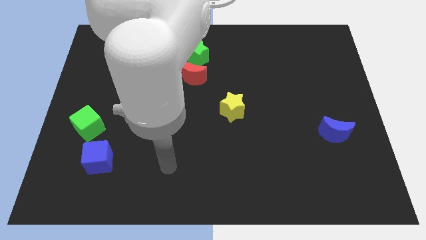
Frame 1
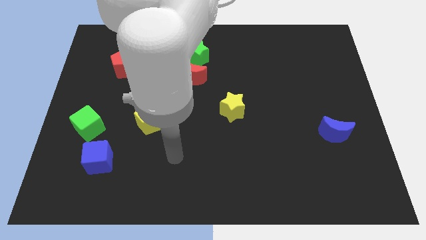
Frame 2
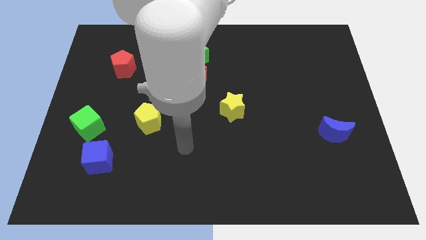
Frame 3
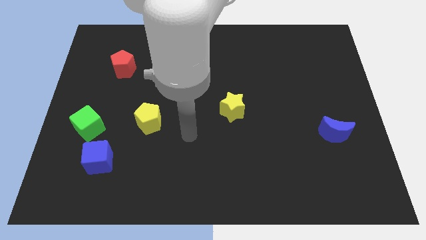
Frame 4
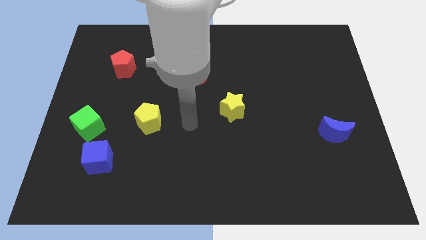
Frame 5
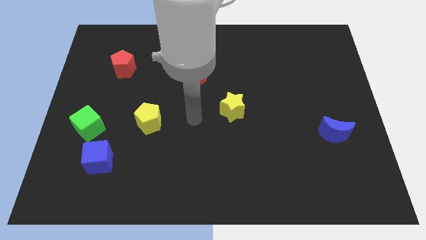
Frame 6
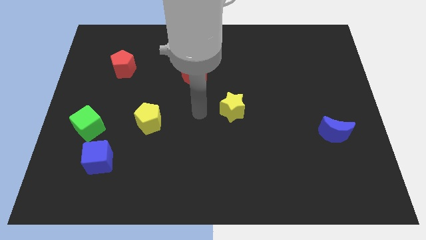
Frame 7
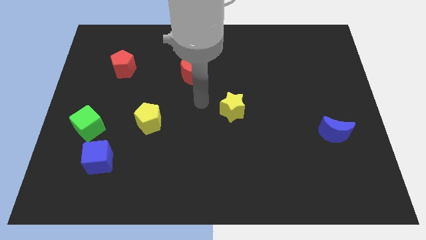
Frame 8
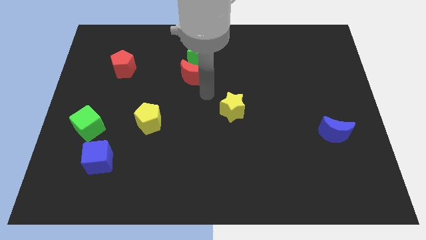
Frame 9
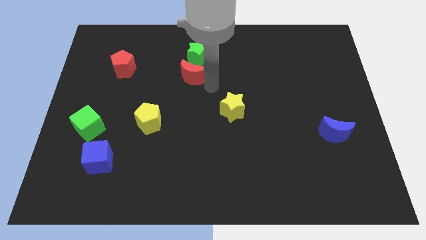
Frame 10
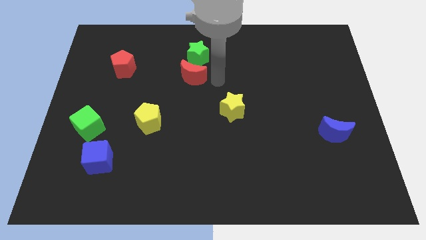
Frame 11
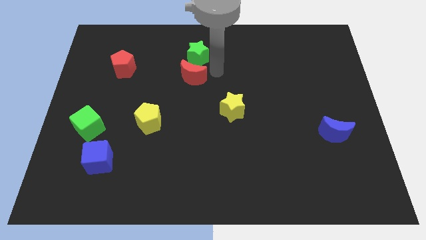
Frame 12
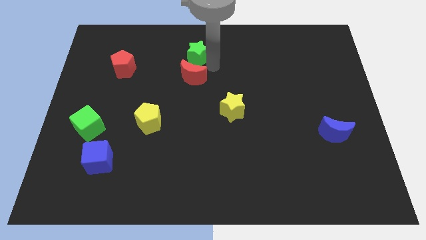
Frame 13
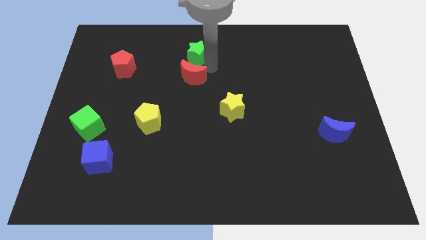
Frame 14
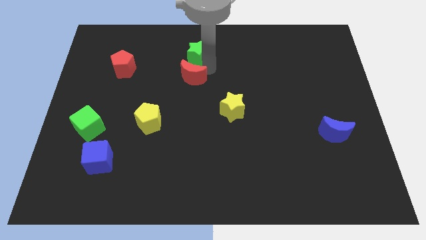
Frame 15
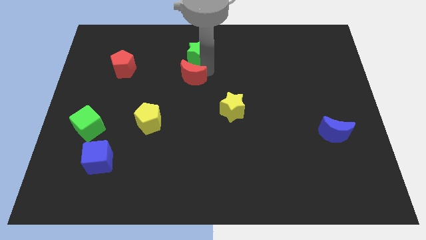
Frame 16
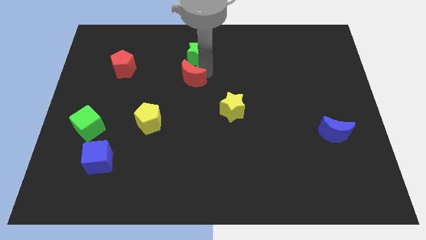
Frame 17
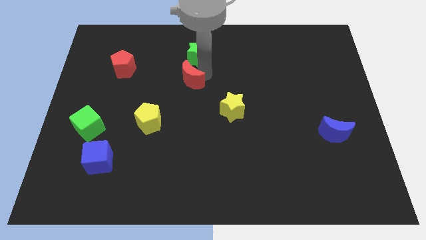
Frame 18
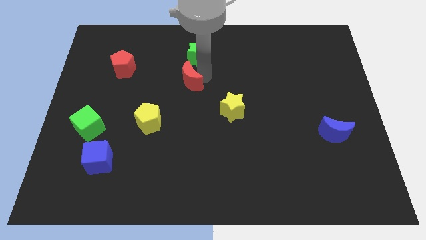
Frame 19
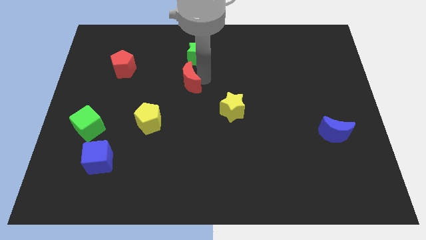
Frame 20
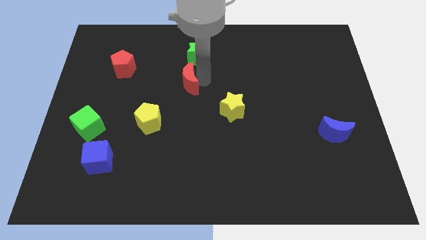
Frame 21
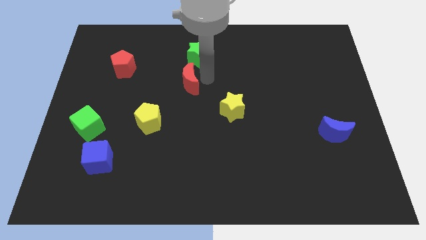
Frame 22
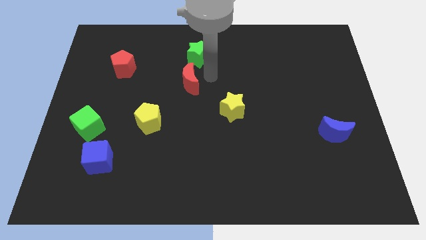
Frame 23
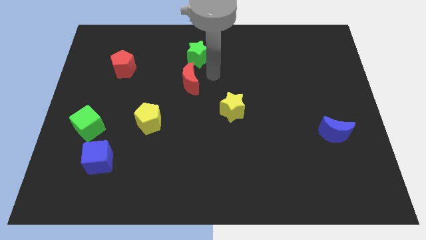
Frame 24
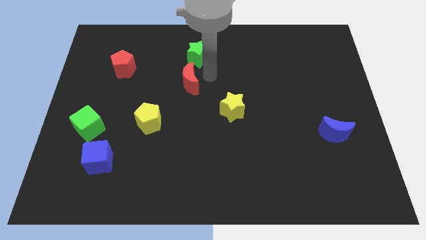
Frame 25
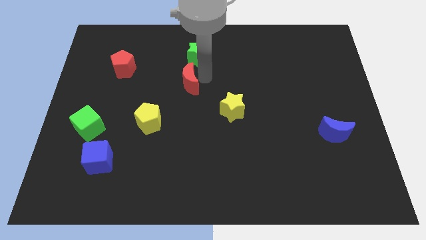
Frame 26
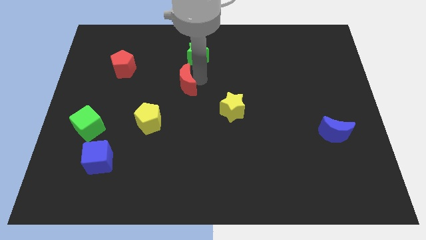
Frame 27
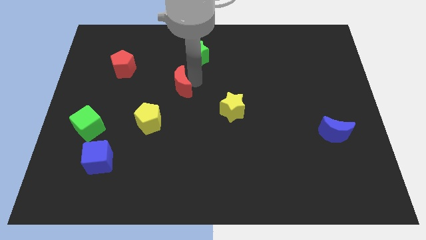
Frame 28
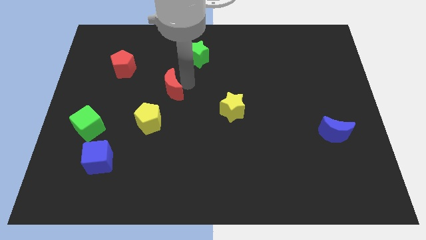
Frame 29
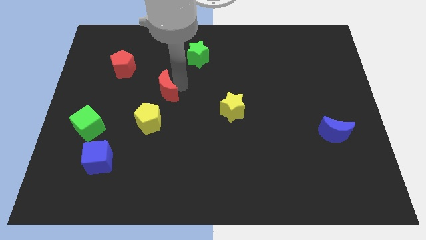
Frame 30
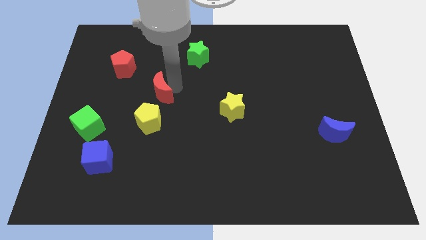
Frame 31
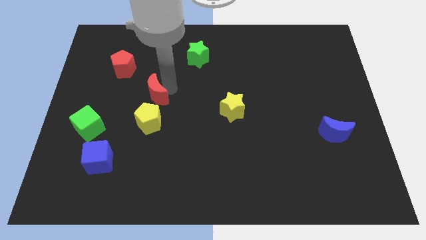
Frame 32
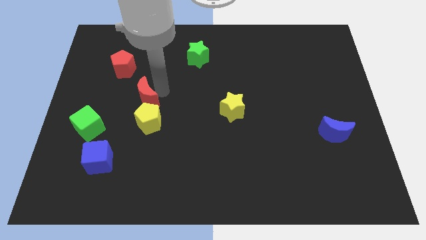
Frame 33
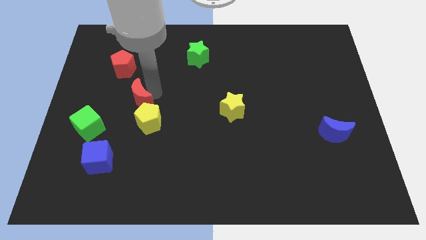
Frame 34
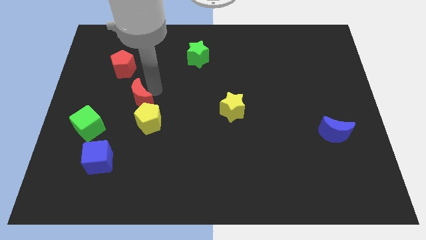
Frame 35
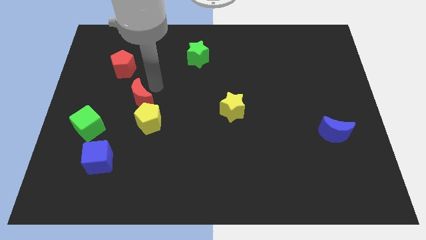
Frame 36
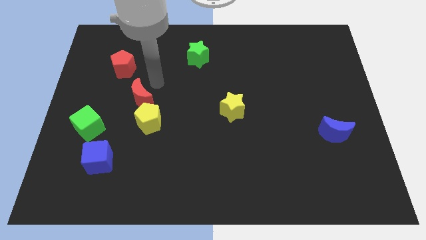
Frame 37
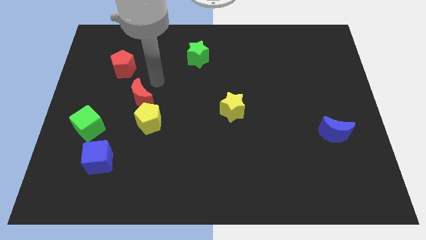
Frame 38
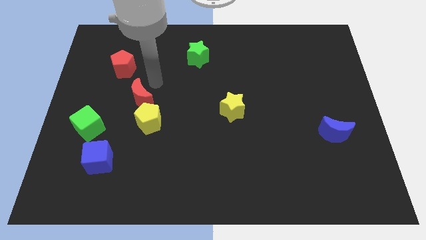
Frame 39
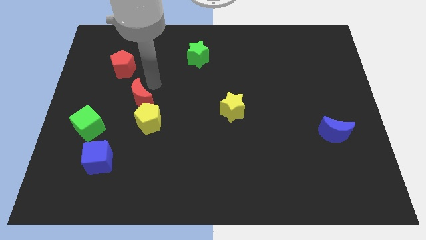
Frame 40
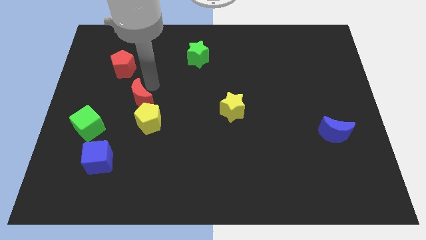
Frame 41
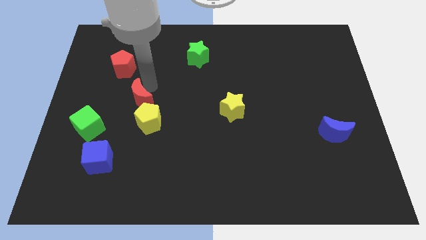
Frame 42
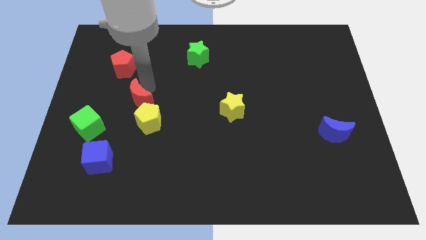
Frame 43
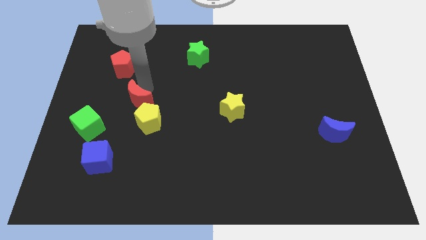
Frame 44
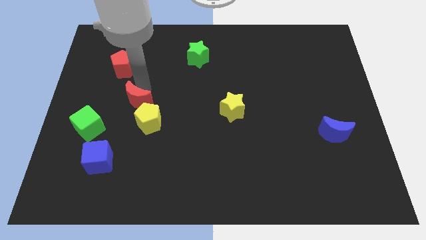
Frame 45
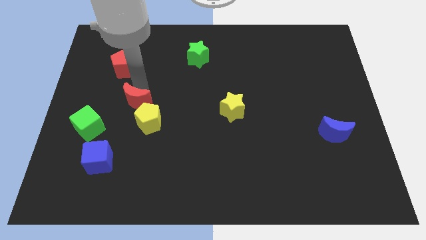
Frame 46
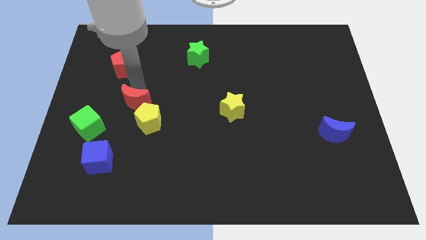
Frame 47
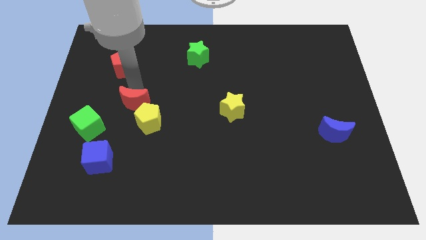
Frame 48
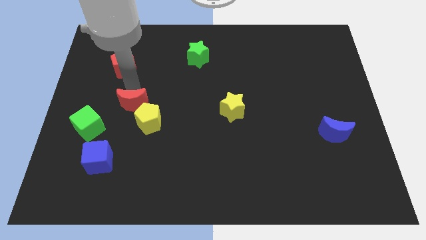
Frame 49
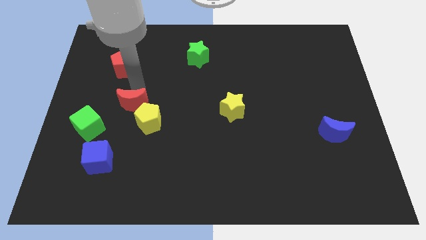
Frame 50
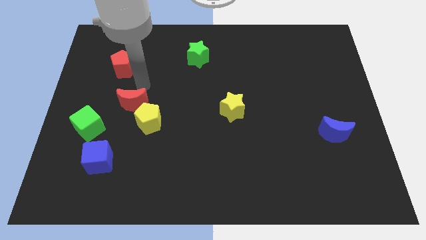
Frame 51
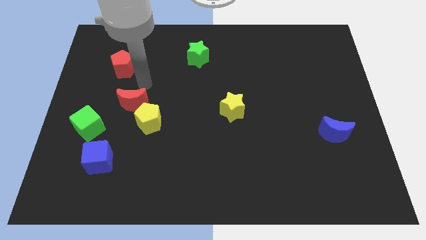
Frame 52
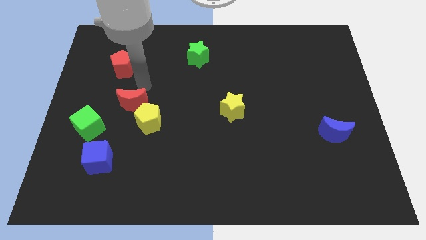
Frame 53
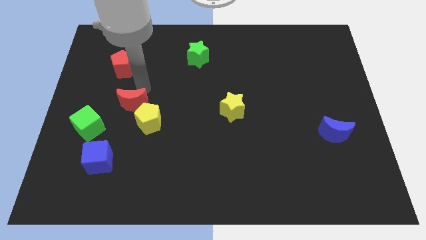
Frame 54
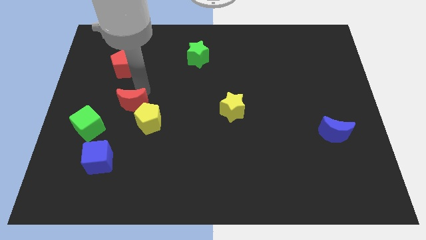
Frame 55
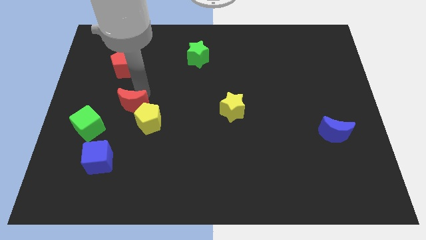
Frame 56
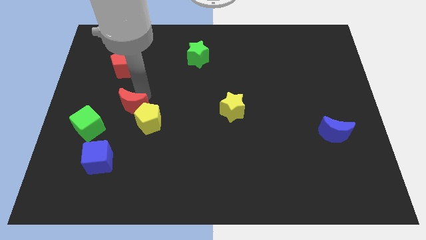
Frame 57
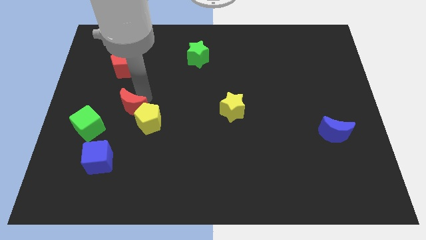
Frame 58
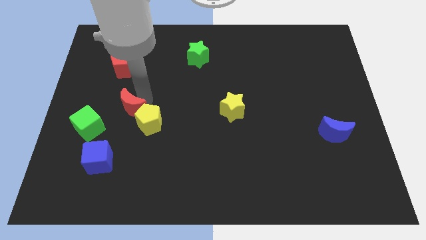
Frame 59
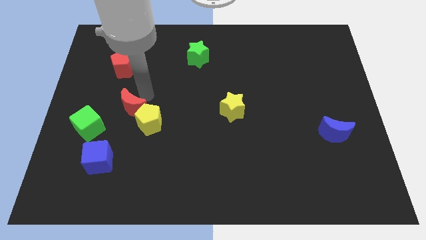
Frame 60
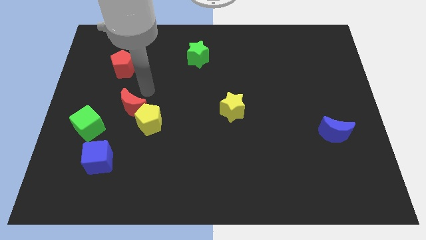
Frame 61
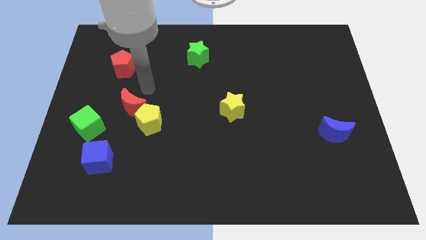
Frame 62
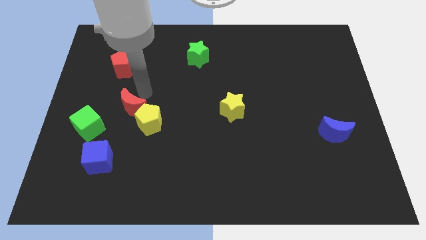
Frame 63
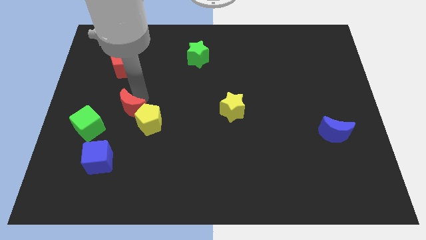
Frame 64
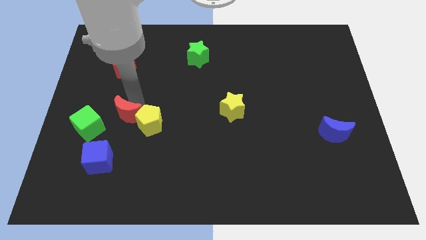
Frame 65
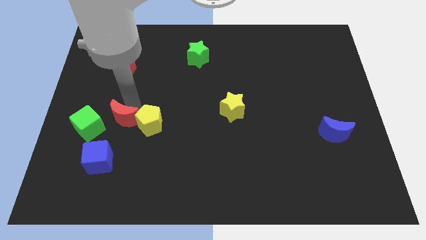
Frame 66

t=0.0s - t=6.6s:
push the red moon downwards and to the left

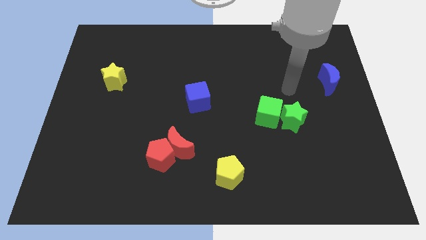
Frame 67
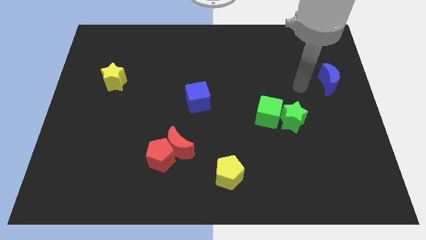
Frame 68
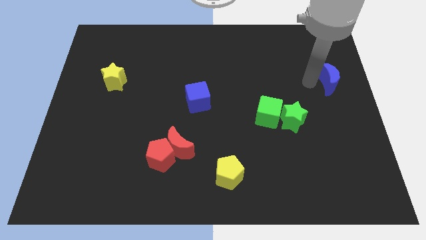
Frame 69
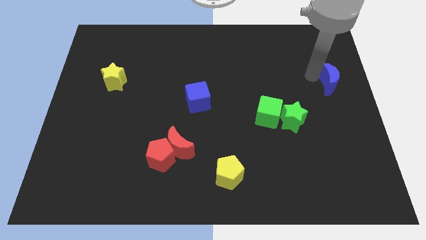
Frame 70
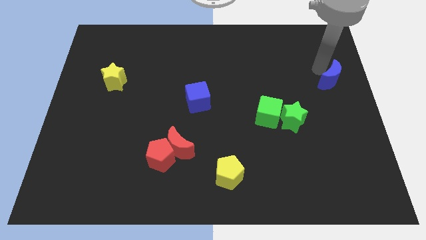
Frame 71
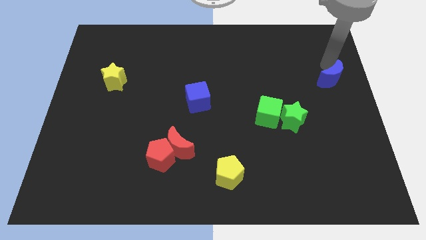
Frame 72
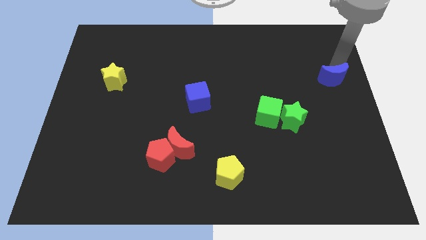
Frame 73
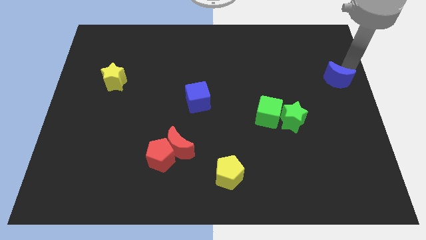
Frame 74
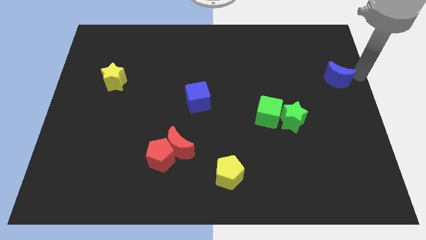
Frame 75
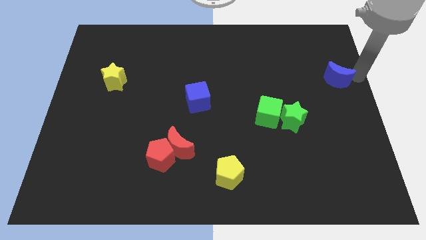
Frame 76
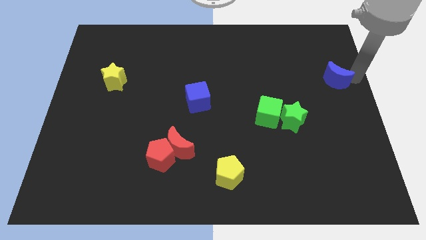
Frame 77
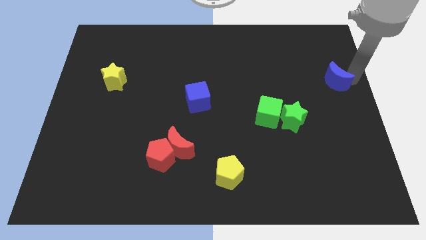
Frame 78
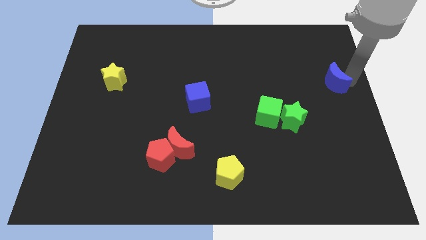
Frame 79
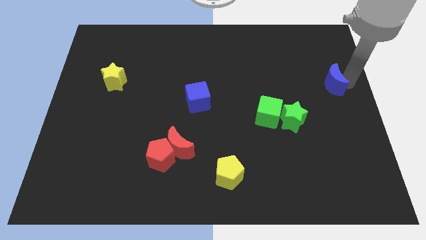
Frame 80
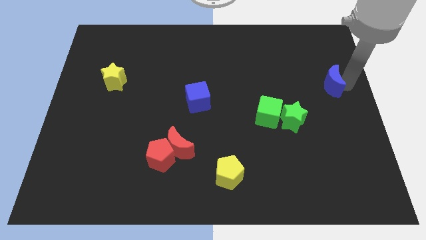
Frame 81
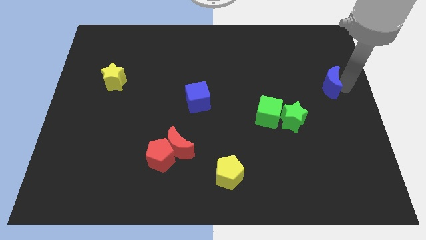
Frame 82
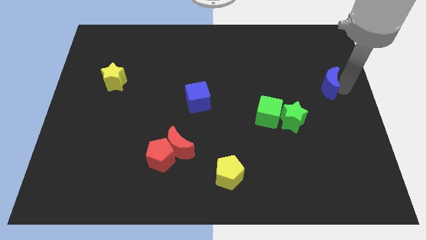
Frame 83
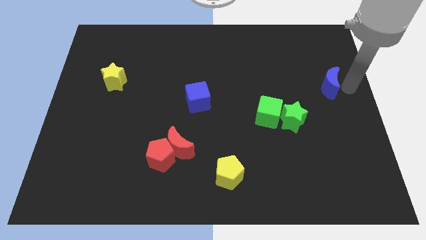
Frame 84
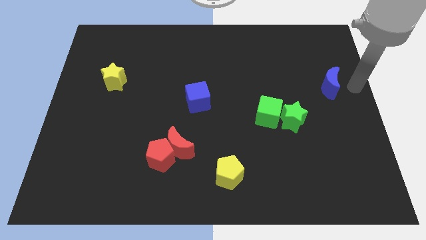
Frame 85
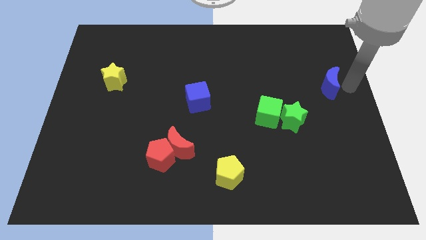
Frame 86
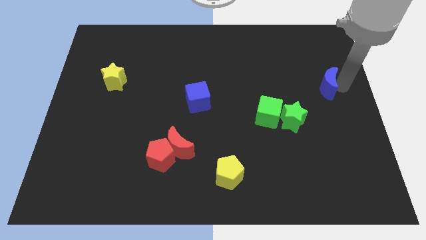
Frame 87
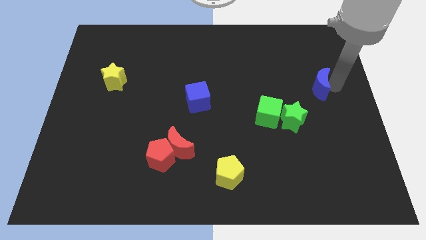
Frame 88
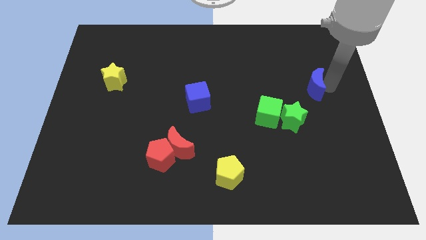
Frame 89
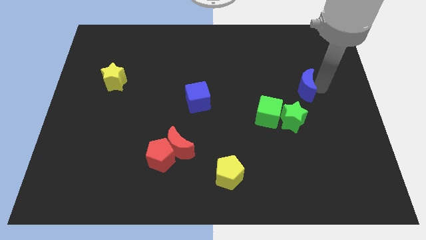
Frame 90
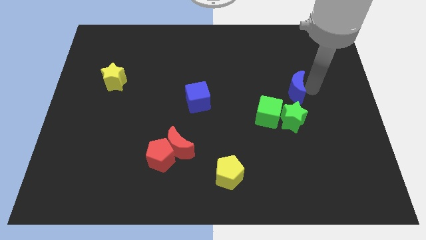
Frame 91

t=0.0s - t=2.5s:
slightly move the blue moon to the left
